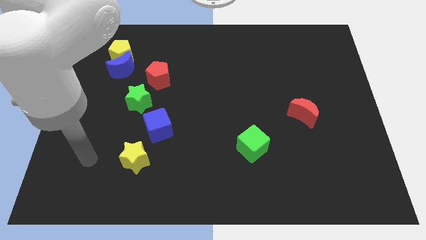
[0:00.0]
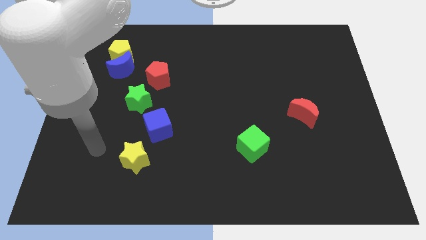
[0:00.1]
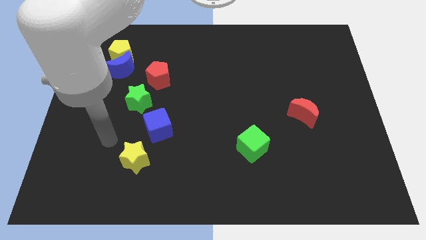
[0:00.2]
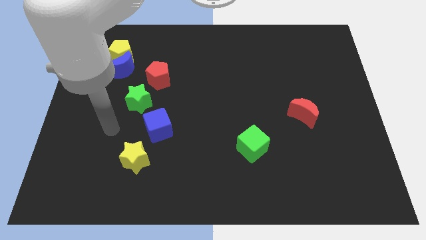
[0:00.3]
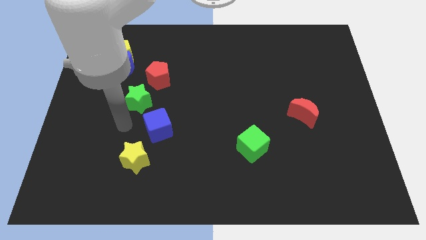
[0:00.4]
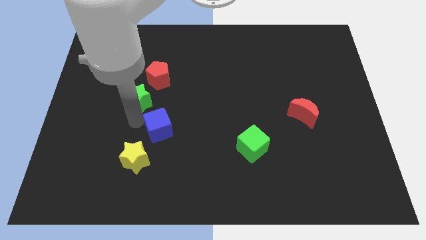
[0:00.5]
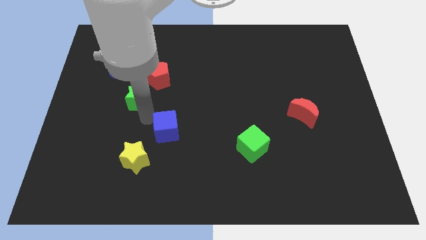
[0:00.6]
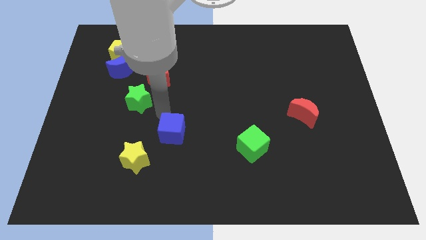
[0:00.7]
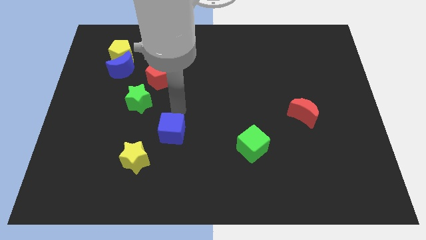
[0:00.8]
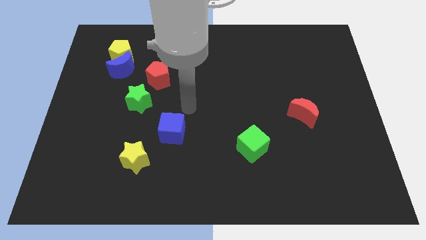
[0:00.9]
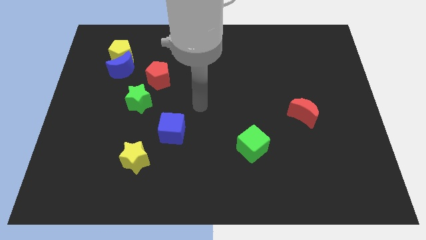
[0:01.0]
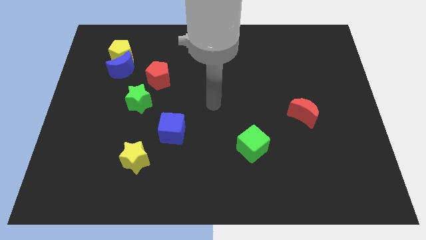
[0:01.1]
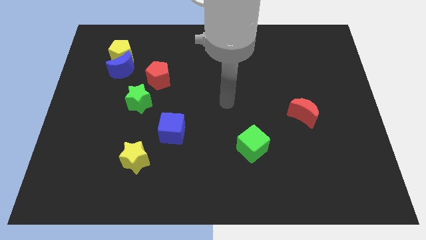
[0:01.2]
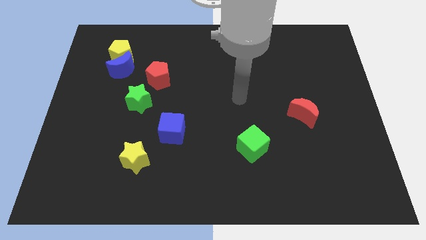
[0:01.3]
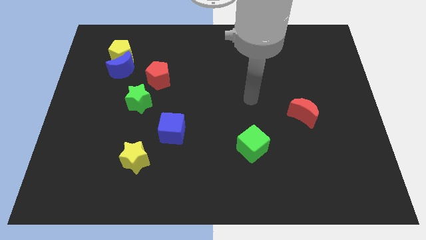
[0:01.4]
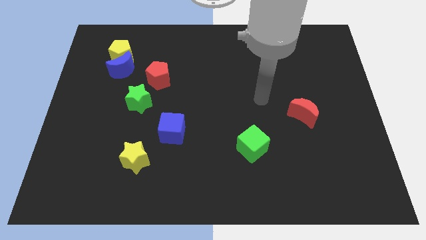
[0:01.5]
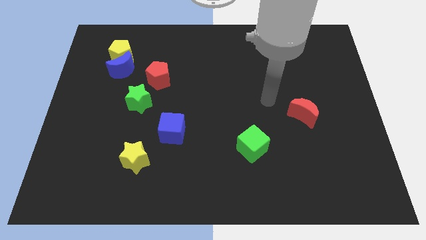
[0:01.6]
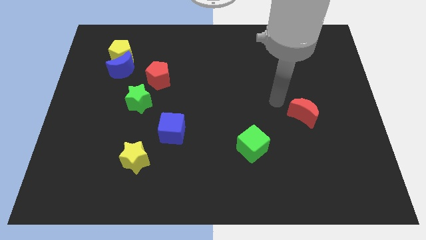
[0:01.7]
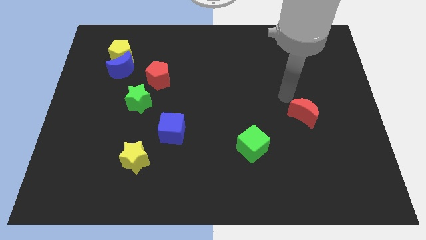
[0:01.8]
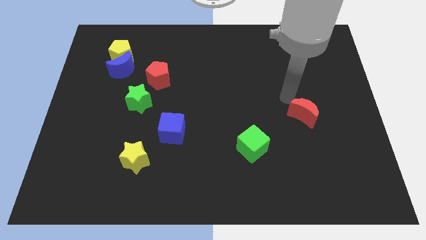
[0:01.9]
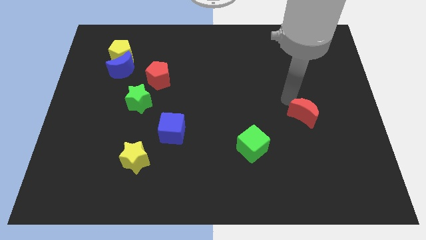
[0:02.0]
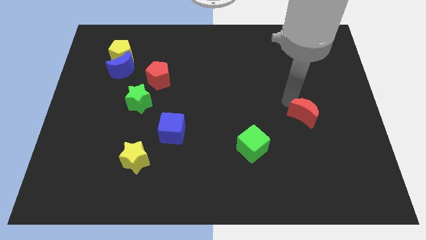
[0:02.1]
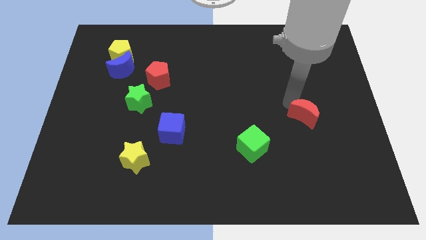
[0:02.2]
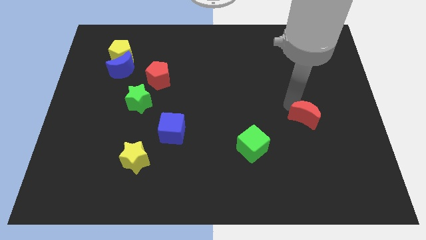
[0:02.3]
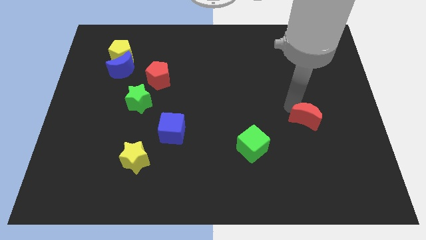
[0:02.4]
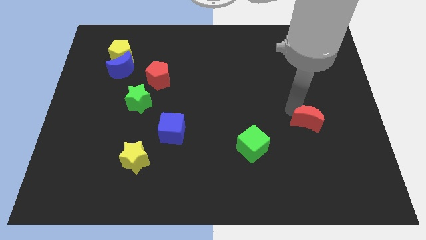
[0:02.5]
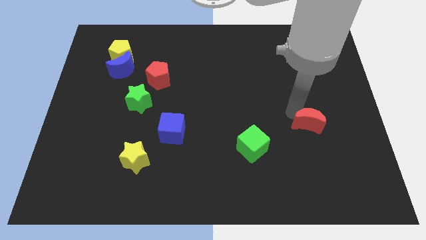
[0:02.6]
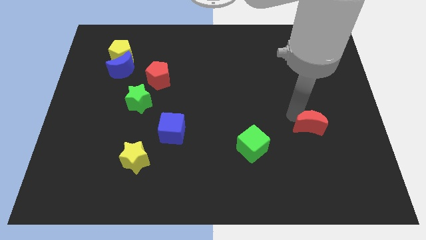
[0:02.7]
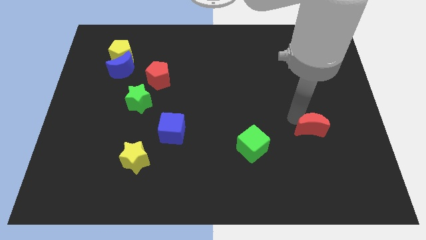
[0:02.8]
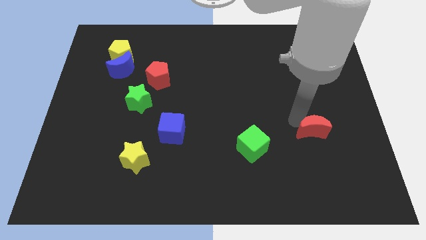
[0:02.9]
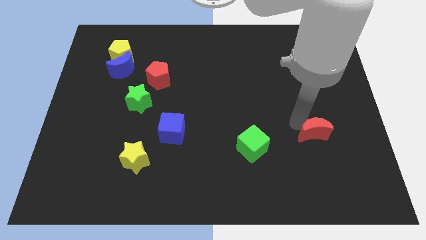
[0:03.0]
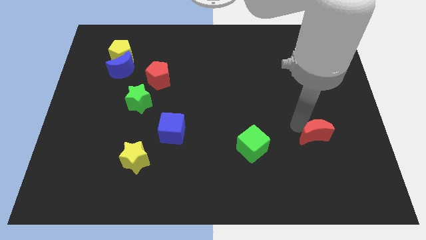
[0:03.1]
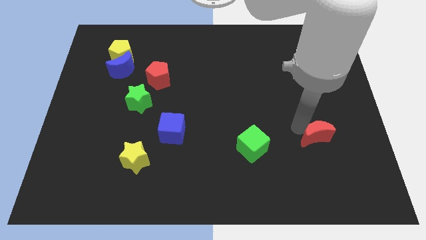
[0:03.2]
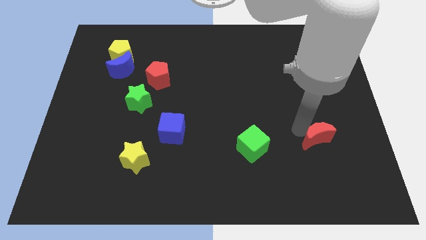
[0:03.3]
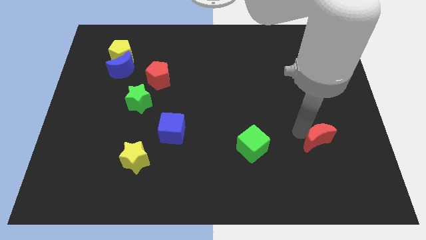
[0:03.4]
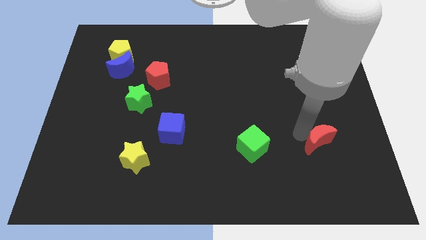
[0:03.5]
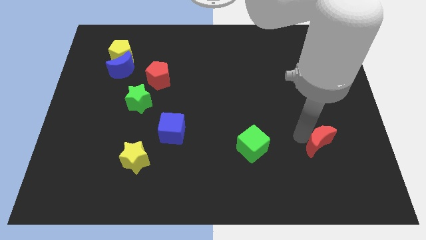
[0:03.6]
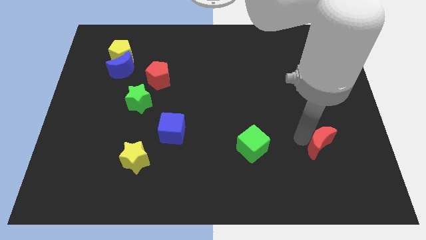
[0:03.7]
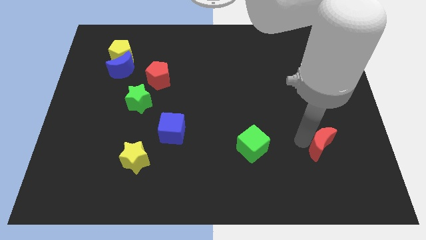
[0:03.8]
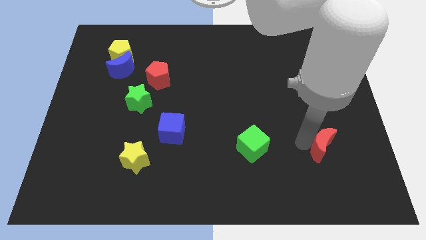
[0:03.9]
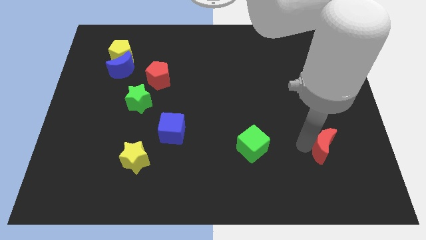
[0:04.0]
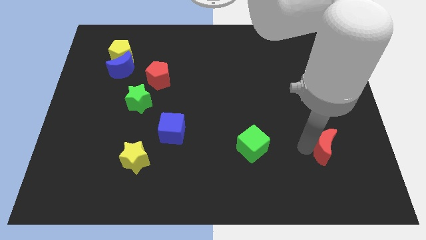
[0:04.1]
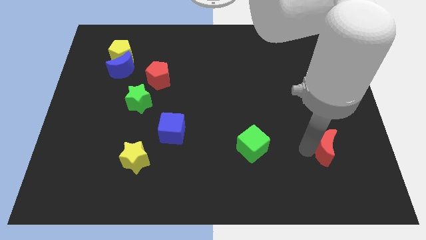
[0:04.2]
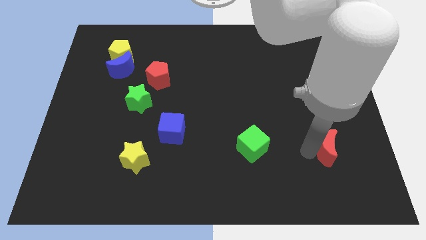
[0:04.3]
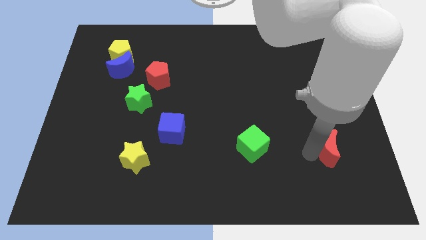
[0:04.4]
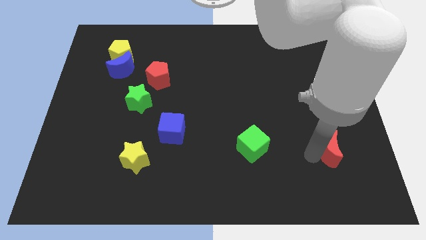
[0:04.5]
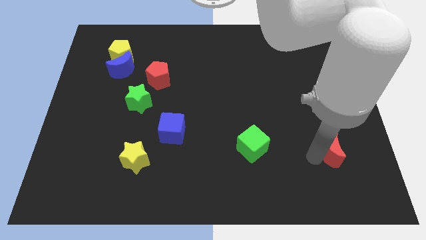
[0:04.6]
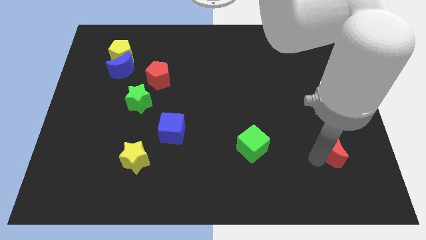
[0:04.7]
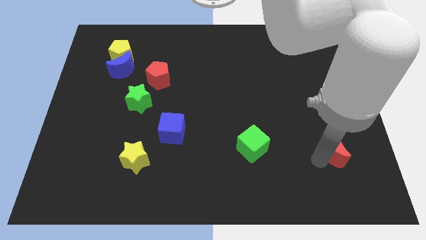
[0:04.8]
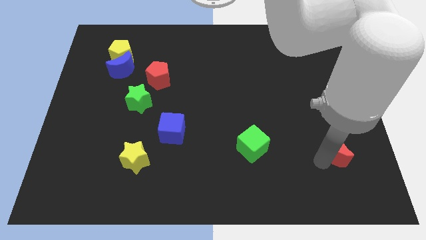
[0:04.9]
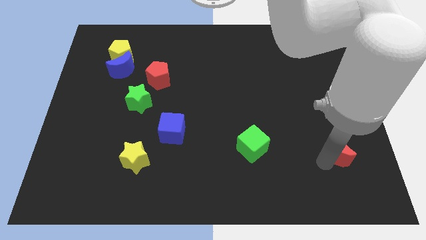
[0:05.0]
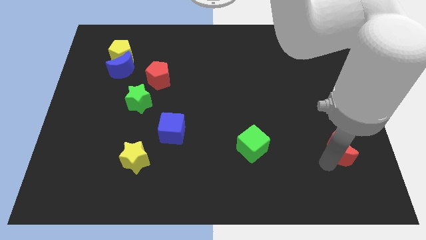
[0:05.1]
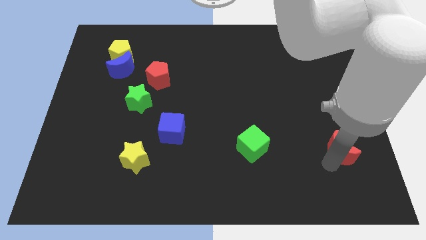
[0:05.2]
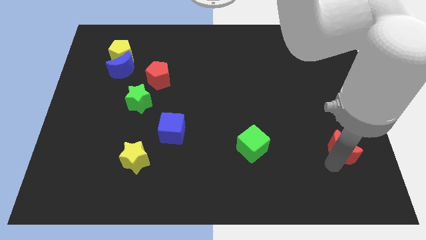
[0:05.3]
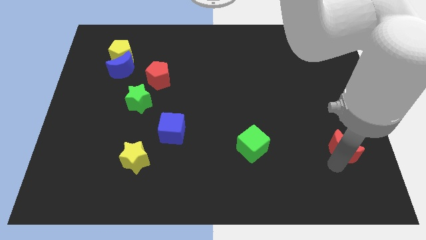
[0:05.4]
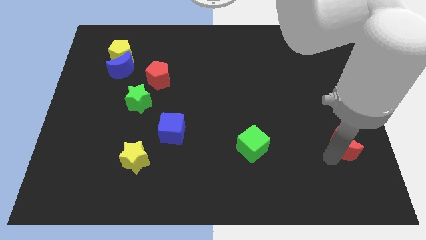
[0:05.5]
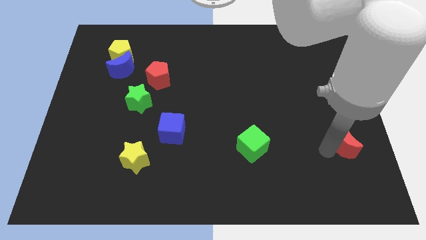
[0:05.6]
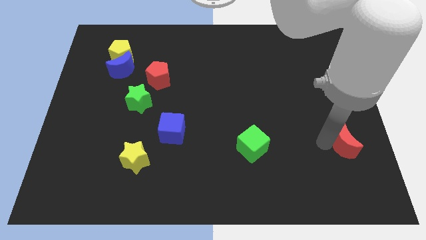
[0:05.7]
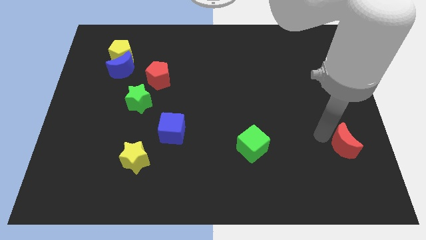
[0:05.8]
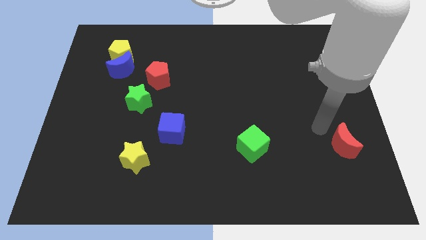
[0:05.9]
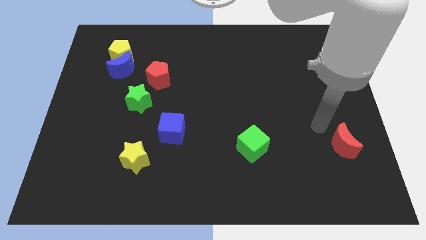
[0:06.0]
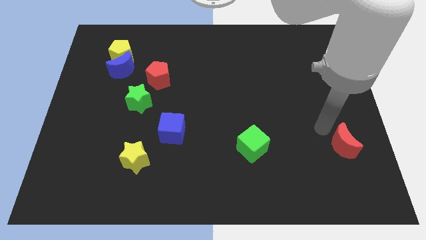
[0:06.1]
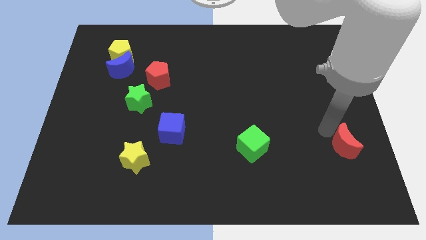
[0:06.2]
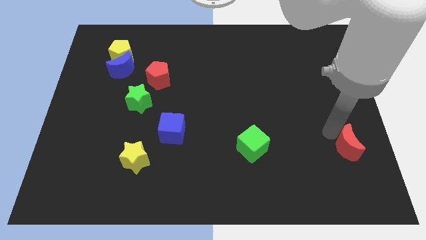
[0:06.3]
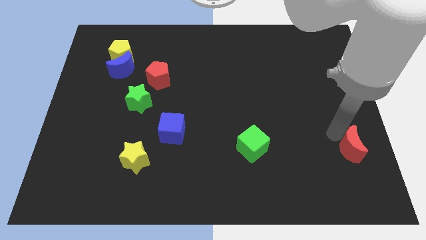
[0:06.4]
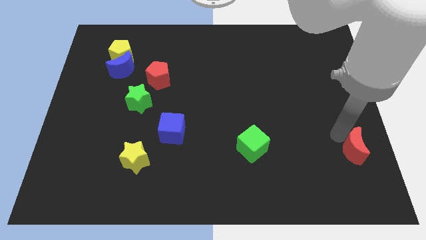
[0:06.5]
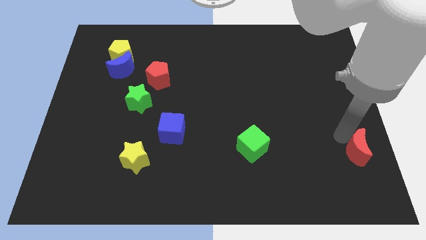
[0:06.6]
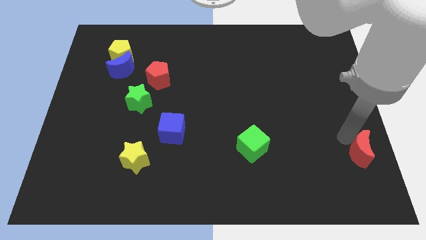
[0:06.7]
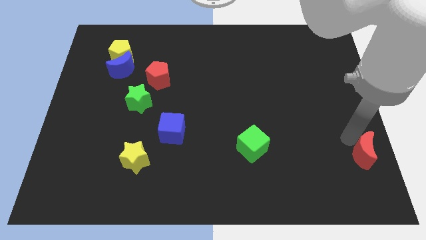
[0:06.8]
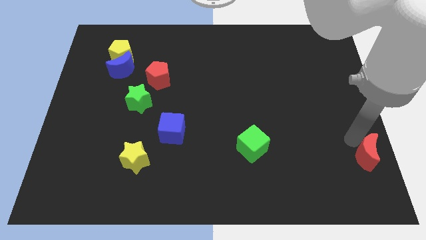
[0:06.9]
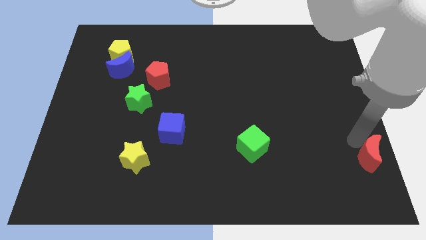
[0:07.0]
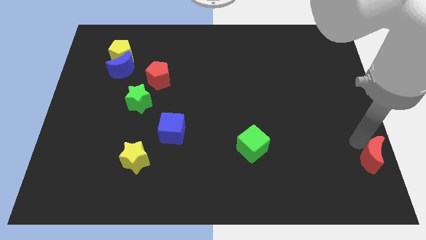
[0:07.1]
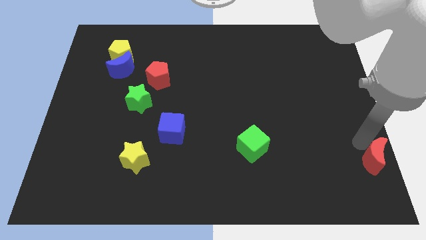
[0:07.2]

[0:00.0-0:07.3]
move the red moon to the bottom right of the board
